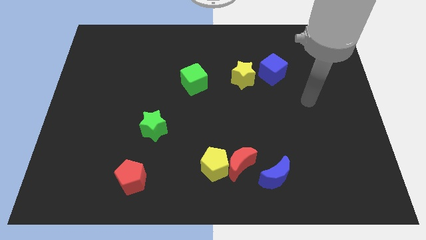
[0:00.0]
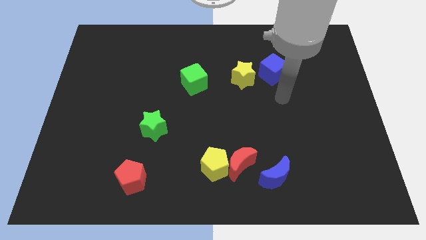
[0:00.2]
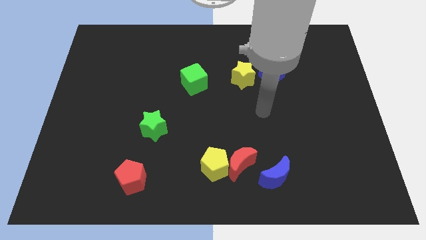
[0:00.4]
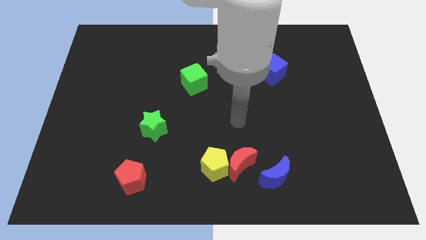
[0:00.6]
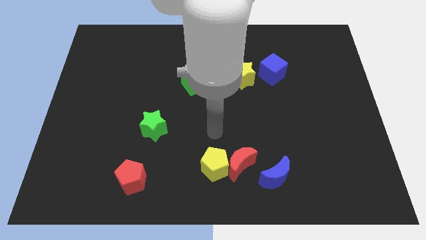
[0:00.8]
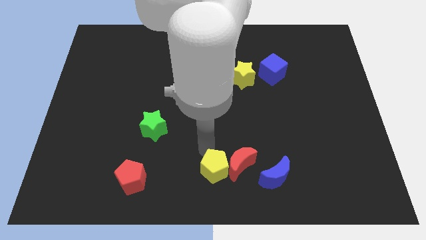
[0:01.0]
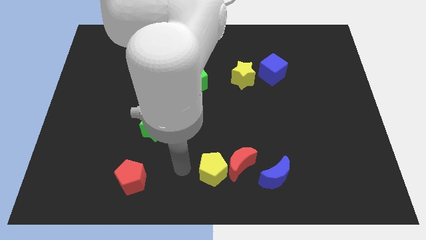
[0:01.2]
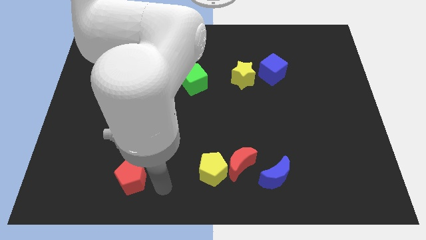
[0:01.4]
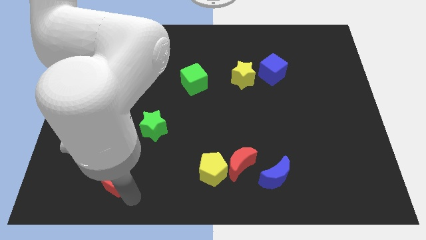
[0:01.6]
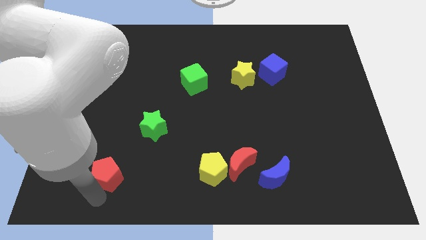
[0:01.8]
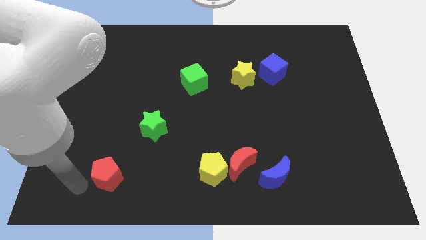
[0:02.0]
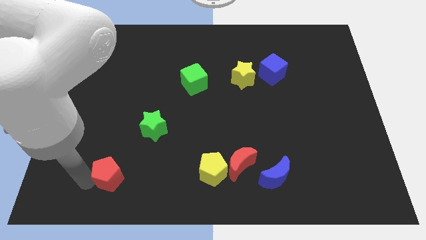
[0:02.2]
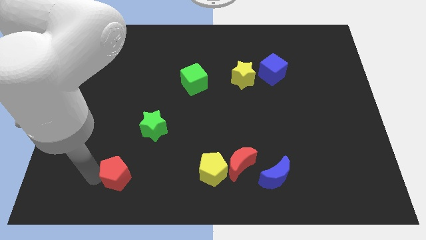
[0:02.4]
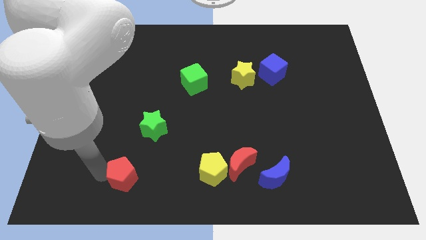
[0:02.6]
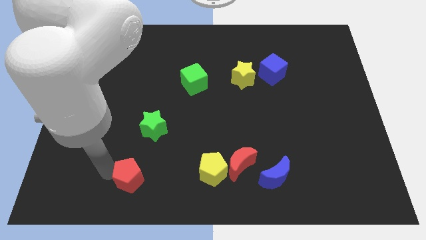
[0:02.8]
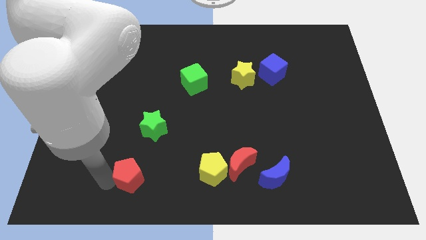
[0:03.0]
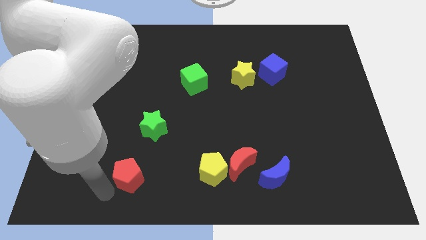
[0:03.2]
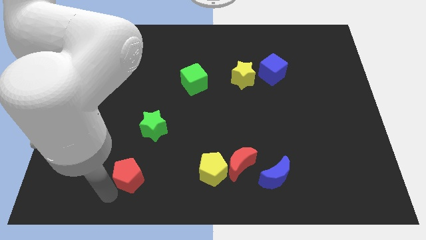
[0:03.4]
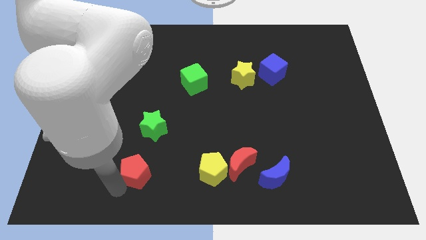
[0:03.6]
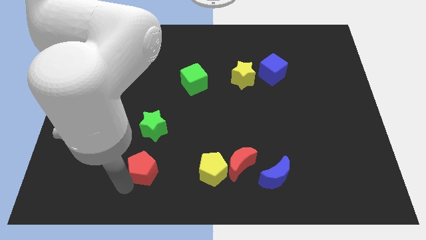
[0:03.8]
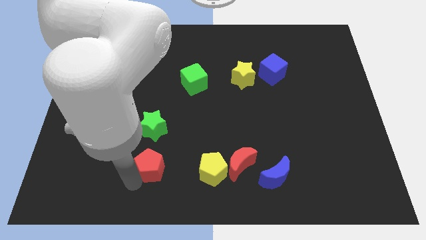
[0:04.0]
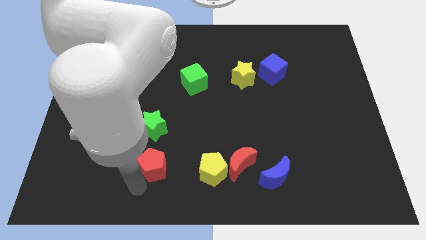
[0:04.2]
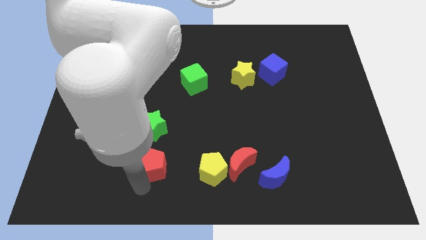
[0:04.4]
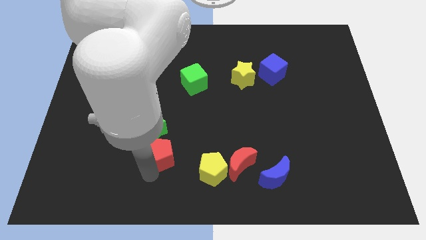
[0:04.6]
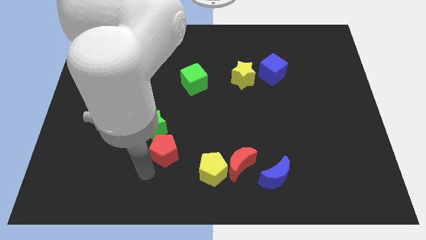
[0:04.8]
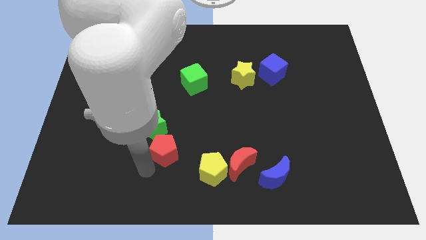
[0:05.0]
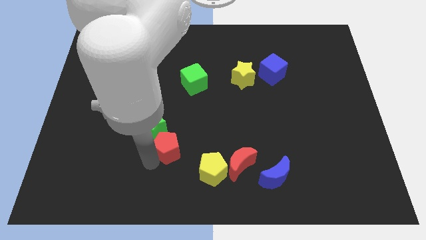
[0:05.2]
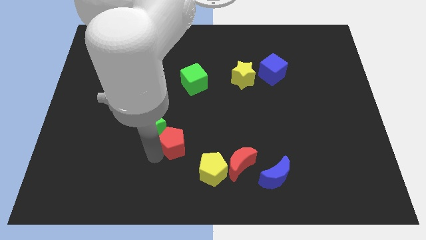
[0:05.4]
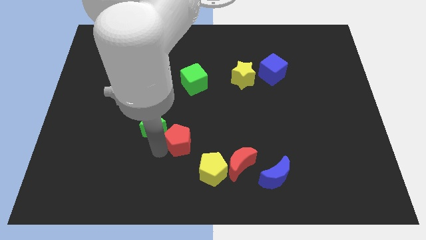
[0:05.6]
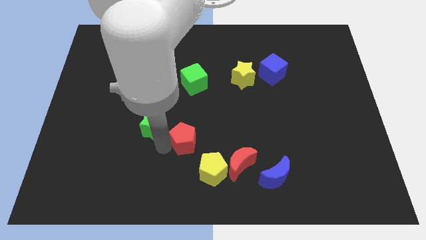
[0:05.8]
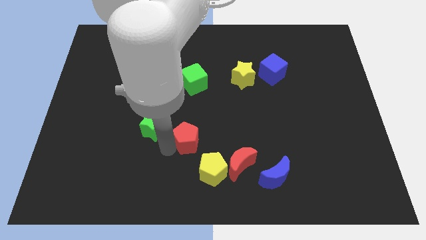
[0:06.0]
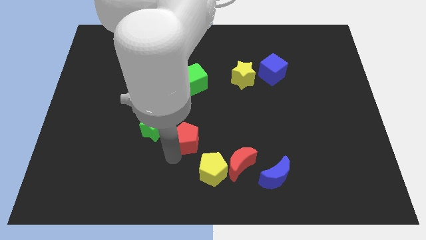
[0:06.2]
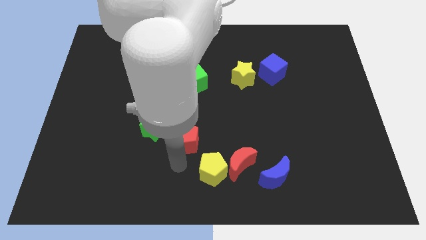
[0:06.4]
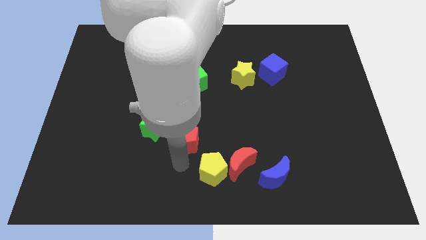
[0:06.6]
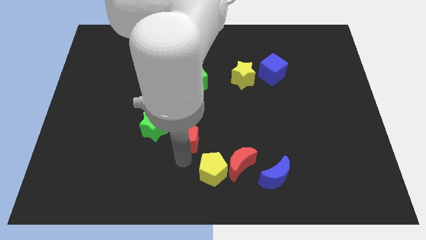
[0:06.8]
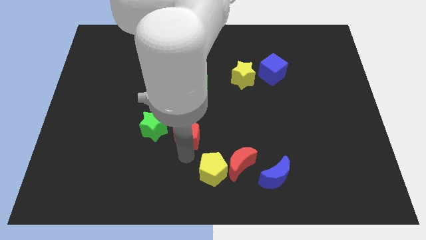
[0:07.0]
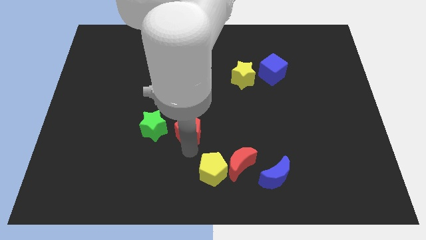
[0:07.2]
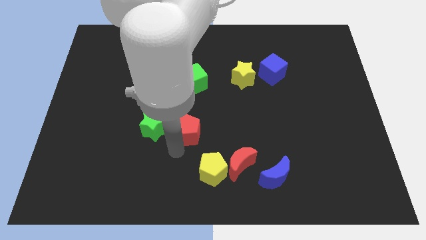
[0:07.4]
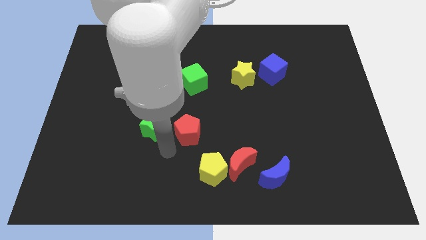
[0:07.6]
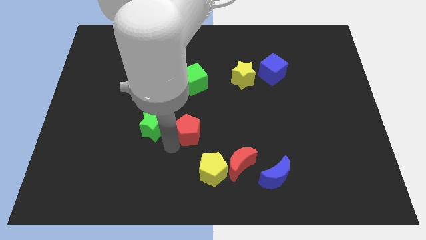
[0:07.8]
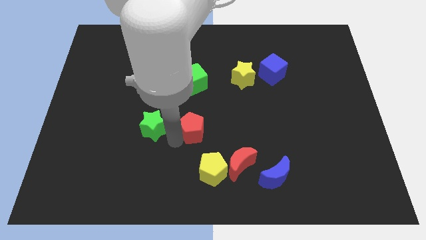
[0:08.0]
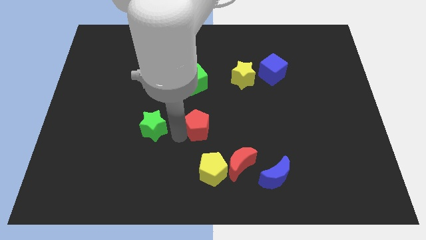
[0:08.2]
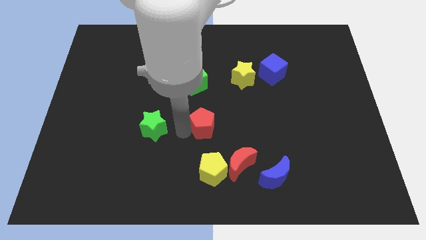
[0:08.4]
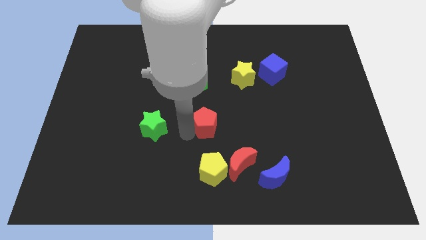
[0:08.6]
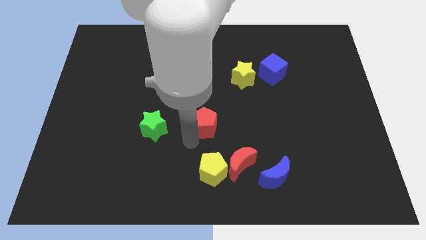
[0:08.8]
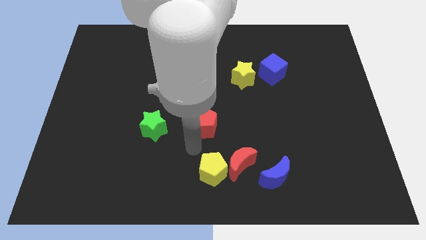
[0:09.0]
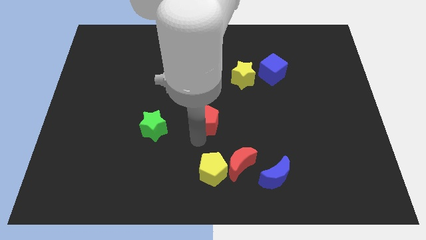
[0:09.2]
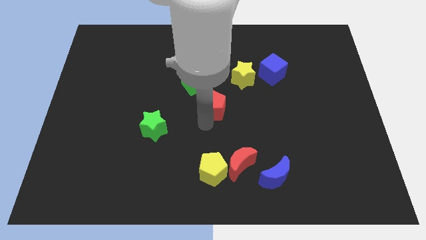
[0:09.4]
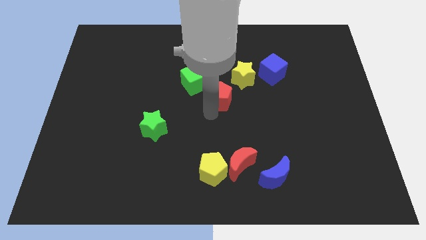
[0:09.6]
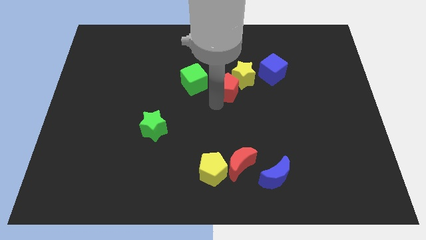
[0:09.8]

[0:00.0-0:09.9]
slide the red pentagon next to the yellow star

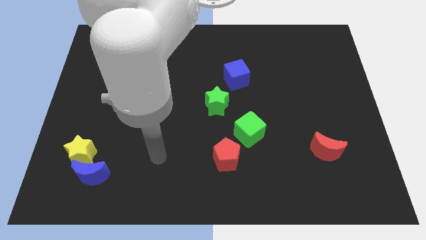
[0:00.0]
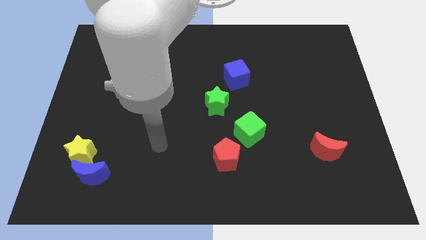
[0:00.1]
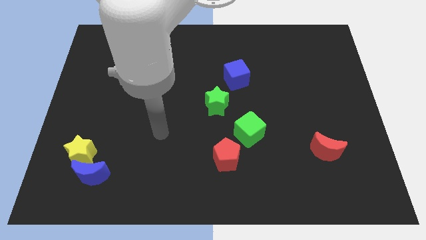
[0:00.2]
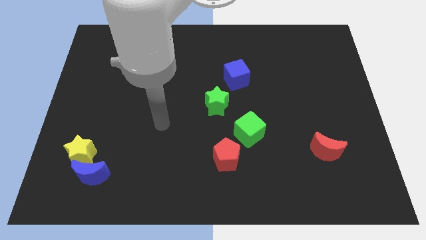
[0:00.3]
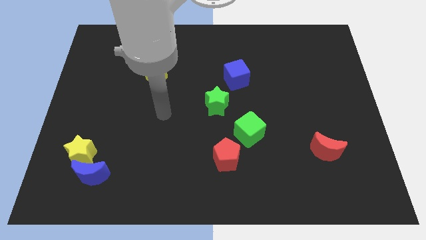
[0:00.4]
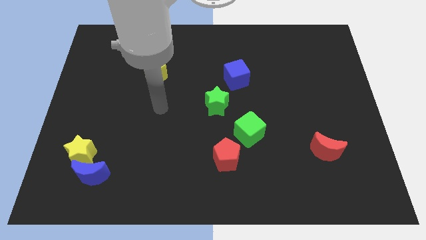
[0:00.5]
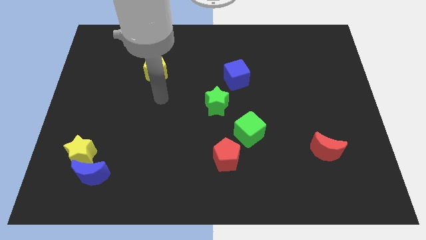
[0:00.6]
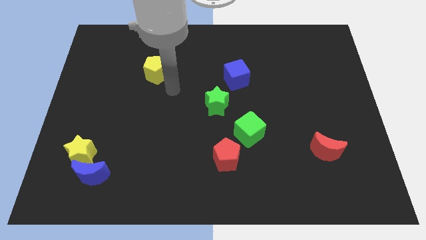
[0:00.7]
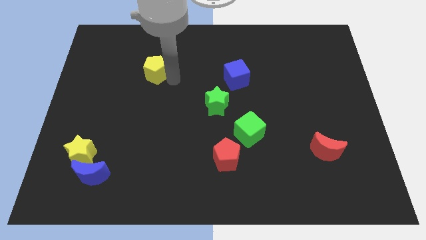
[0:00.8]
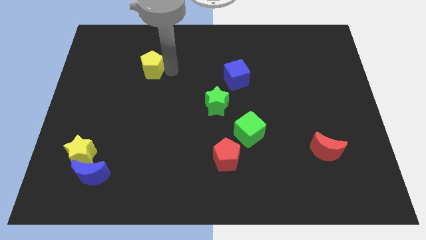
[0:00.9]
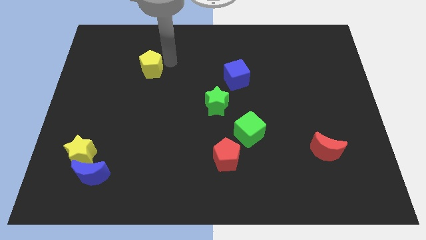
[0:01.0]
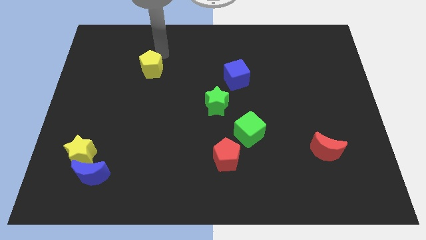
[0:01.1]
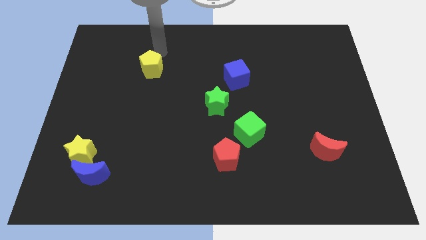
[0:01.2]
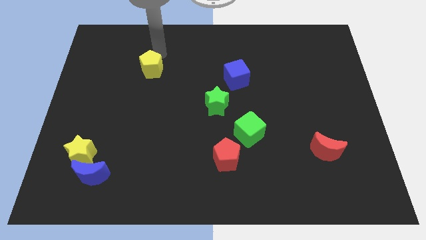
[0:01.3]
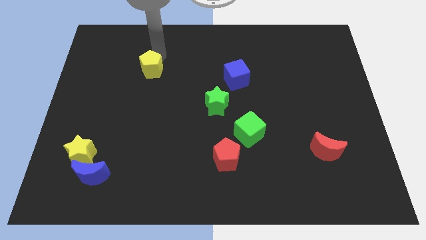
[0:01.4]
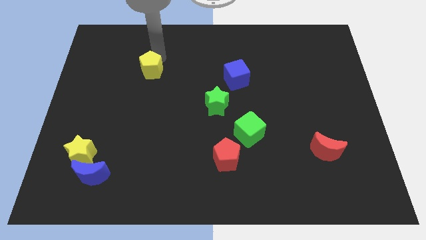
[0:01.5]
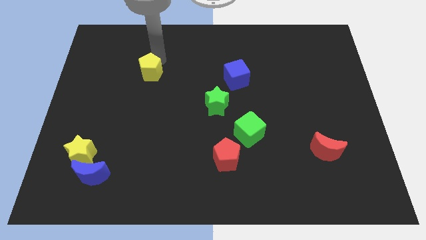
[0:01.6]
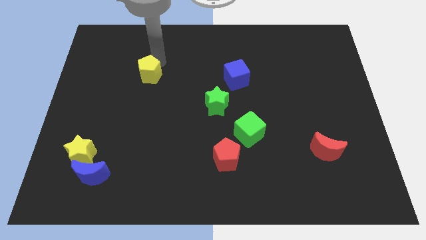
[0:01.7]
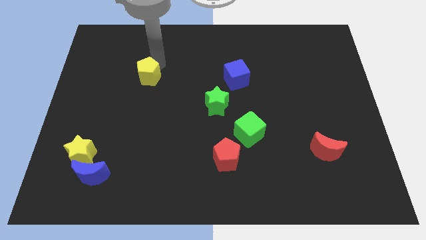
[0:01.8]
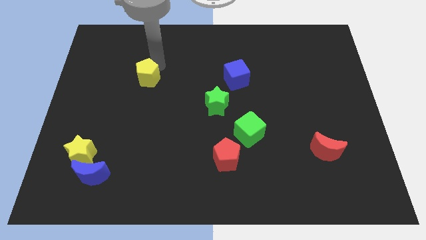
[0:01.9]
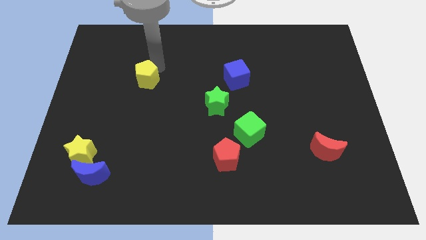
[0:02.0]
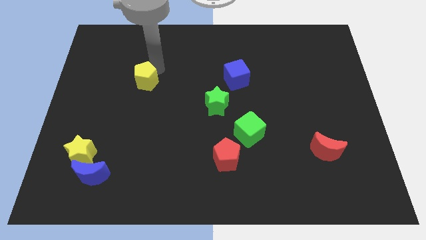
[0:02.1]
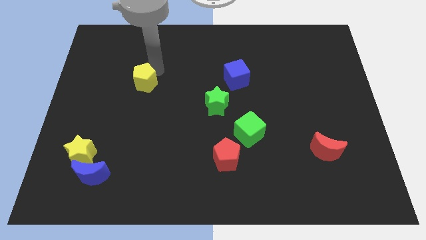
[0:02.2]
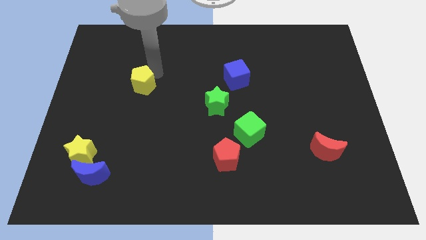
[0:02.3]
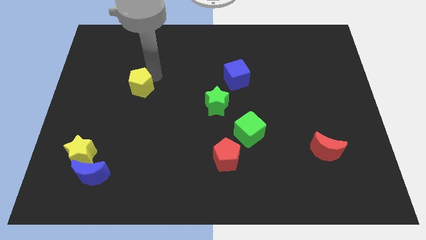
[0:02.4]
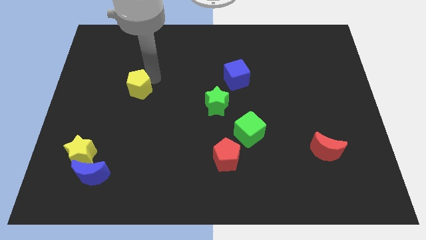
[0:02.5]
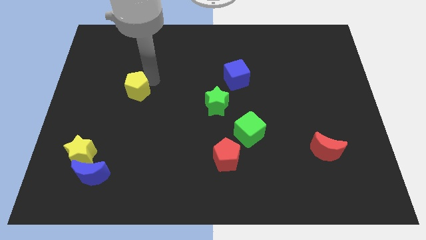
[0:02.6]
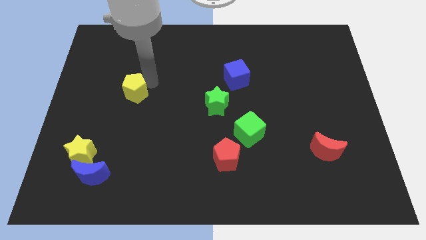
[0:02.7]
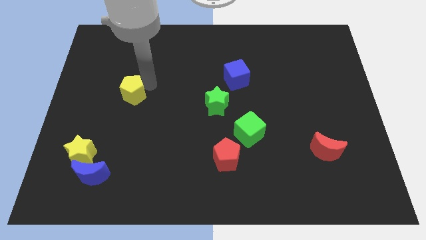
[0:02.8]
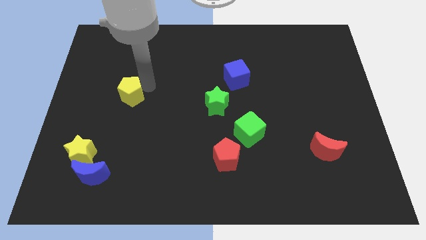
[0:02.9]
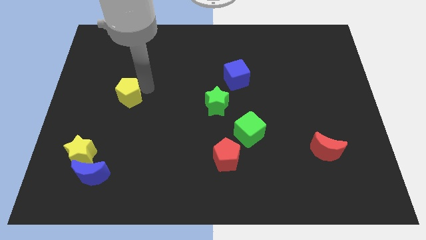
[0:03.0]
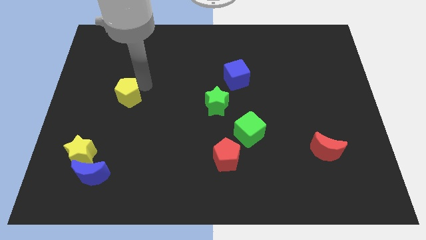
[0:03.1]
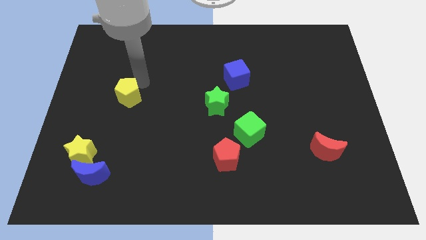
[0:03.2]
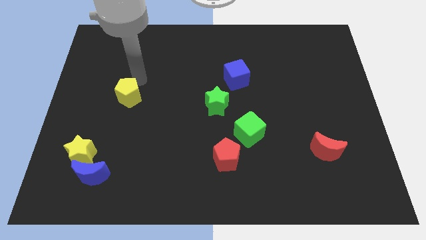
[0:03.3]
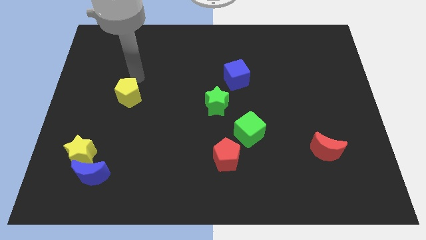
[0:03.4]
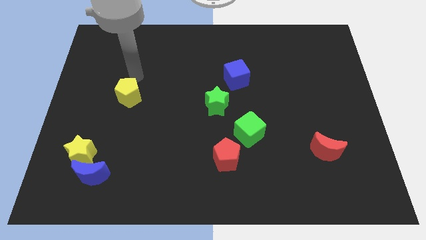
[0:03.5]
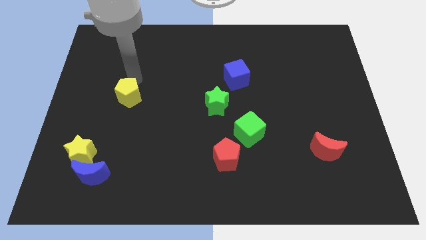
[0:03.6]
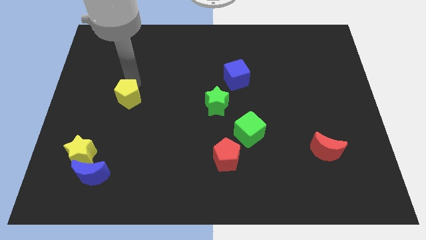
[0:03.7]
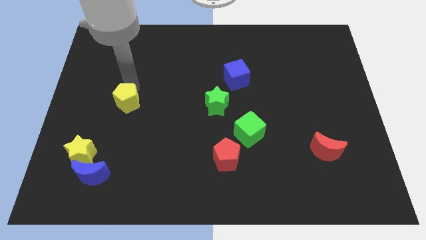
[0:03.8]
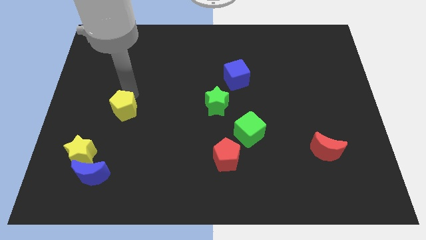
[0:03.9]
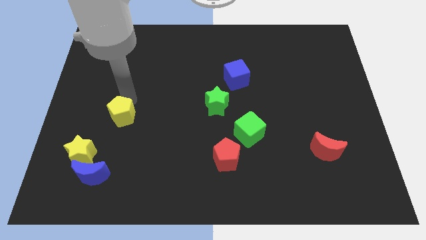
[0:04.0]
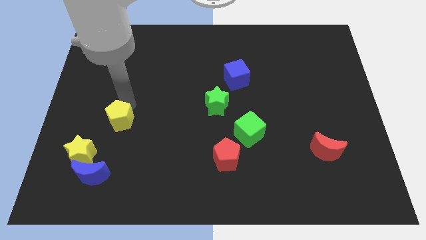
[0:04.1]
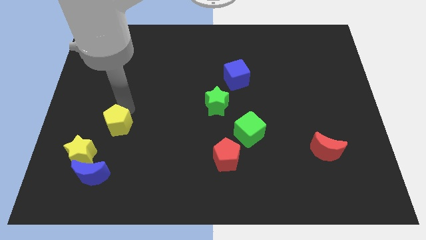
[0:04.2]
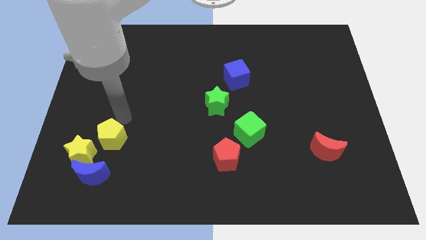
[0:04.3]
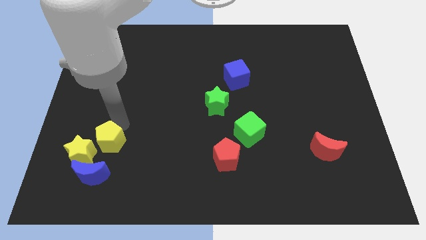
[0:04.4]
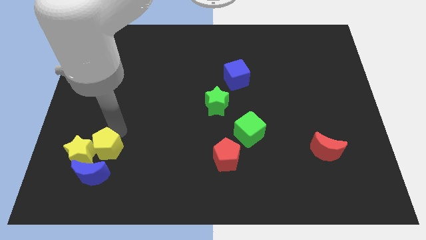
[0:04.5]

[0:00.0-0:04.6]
put the yellow pentagon towards the yellow star
